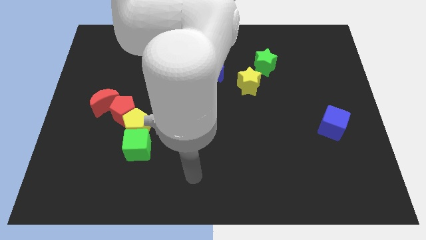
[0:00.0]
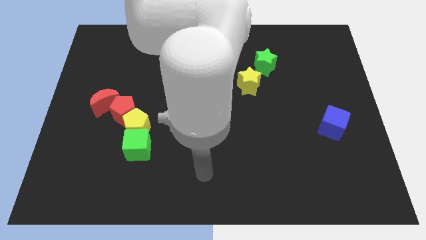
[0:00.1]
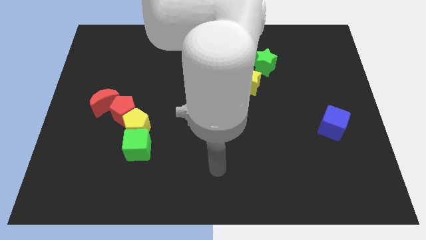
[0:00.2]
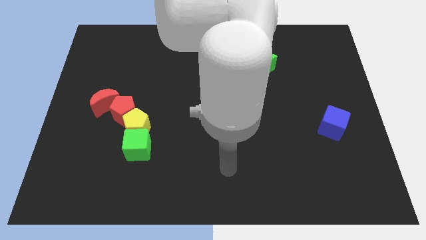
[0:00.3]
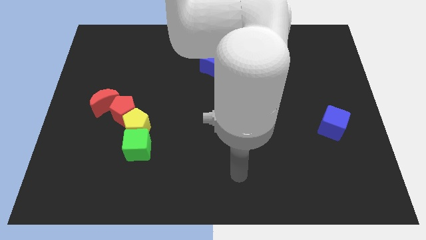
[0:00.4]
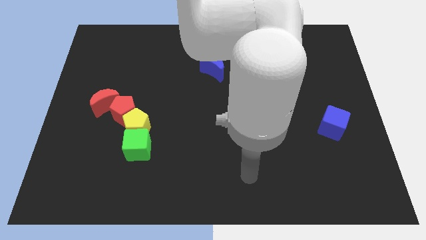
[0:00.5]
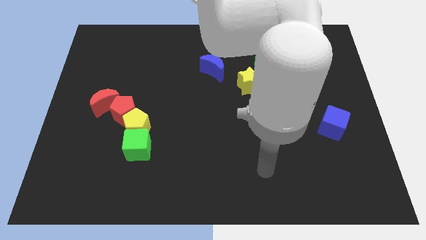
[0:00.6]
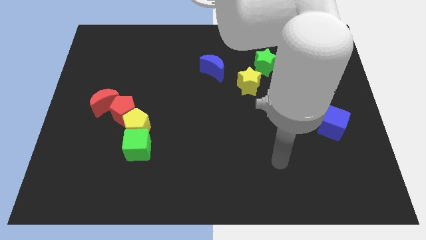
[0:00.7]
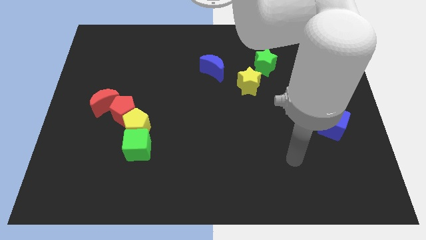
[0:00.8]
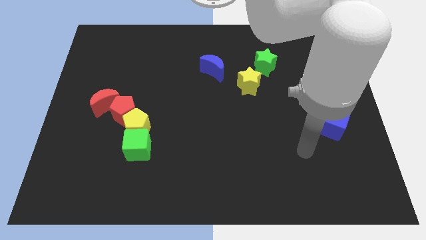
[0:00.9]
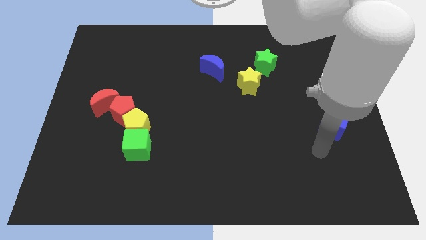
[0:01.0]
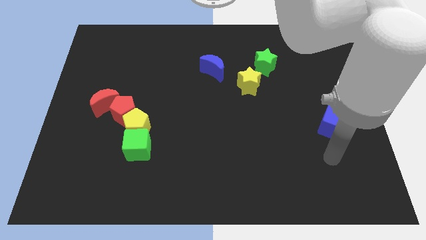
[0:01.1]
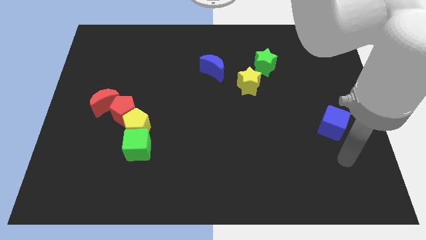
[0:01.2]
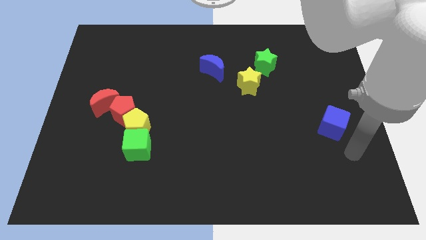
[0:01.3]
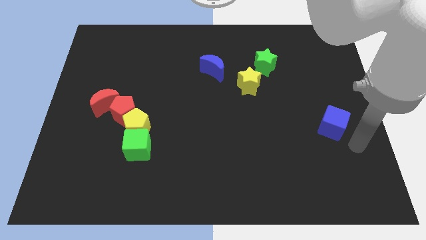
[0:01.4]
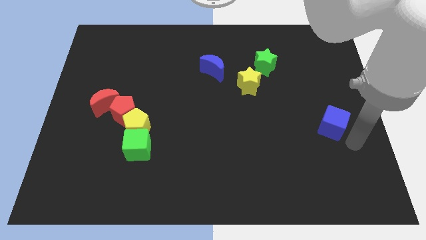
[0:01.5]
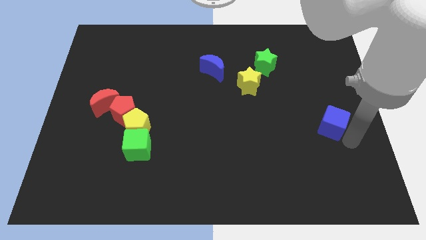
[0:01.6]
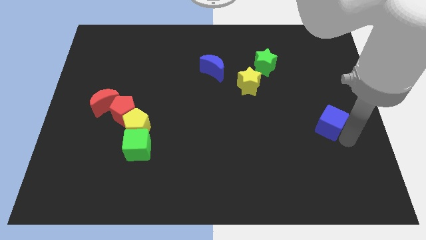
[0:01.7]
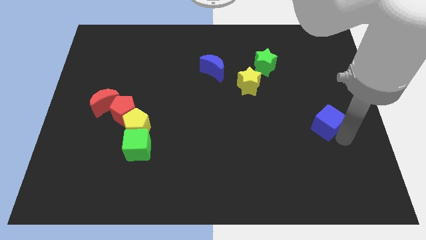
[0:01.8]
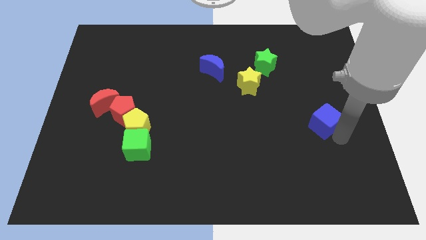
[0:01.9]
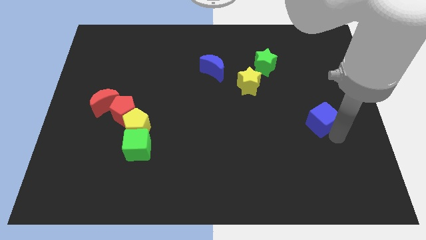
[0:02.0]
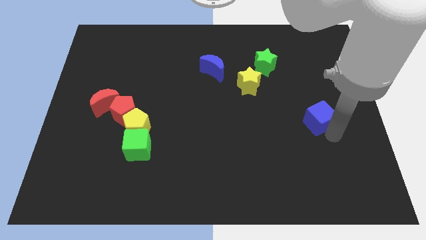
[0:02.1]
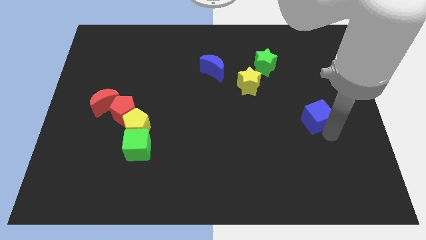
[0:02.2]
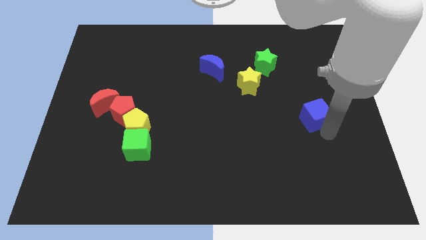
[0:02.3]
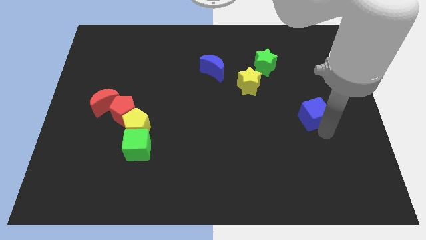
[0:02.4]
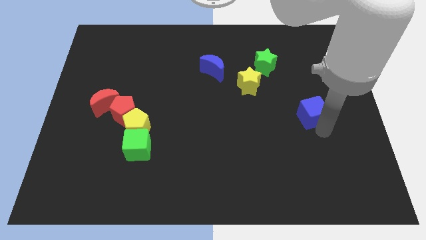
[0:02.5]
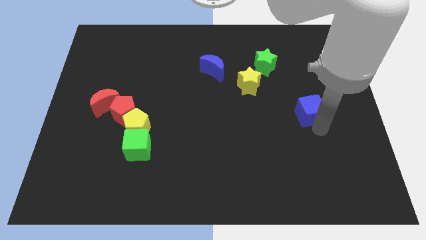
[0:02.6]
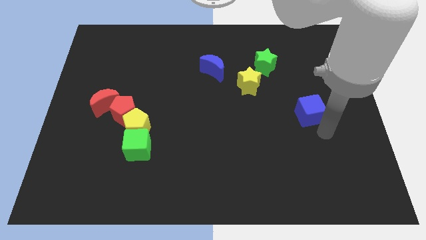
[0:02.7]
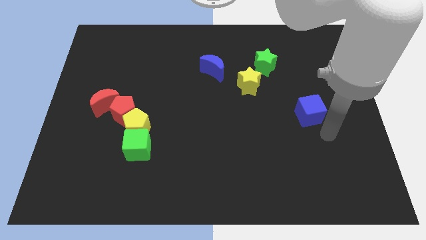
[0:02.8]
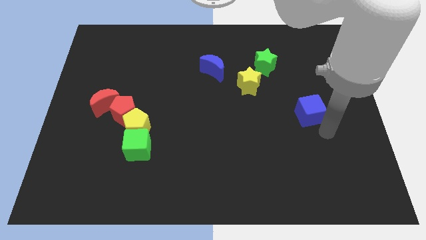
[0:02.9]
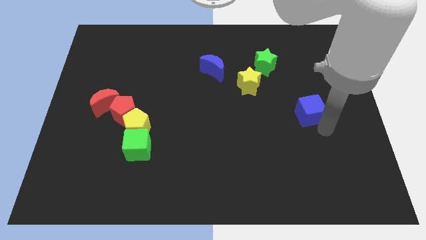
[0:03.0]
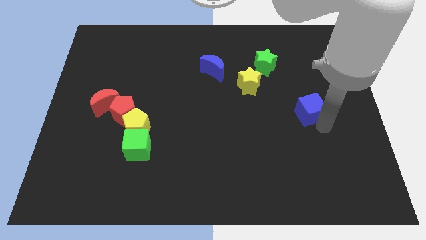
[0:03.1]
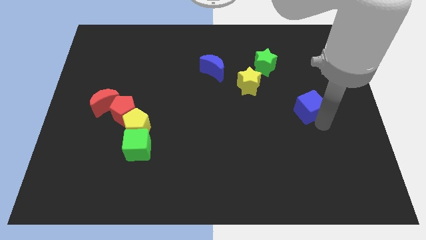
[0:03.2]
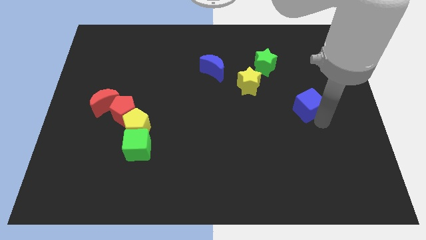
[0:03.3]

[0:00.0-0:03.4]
slide the blue cube diagonally upwards and to the left a bit

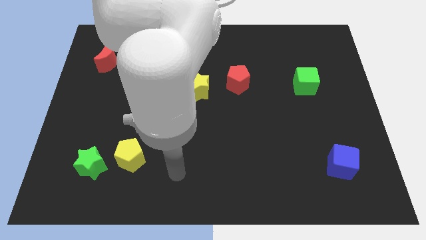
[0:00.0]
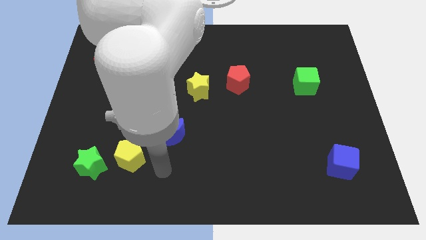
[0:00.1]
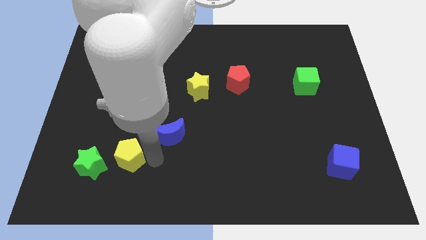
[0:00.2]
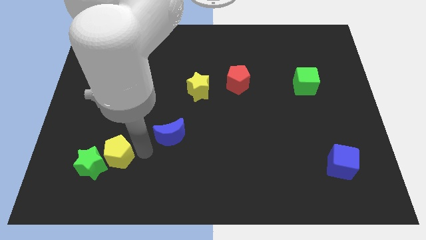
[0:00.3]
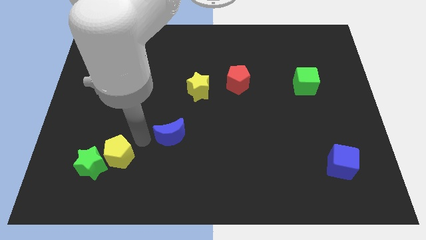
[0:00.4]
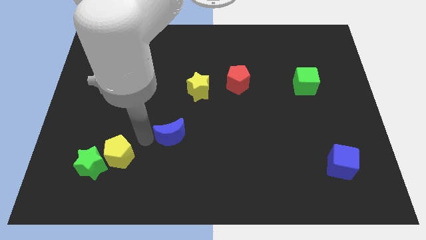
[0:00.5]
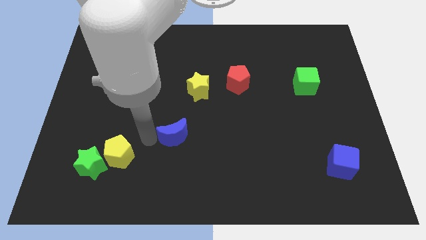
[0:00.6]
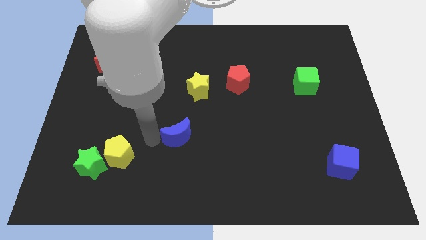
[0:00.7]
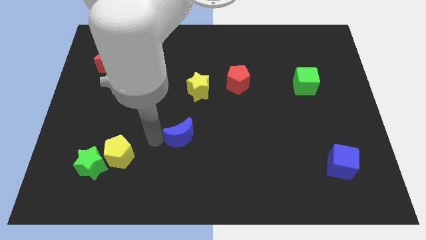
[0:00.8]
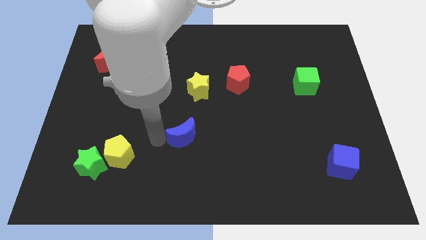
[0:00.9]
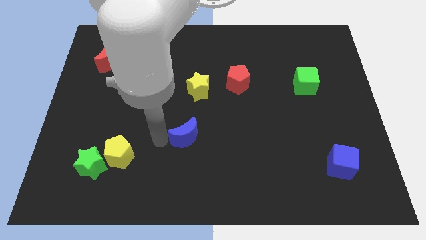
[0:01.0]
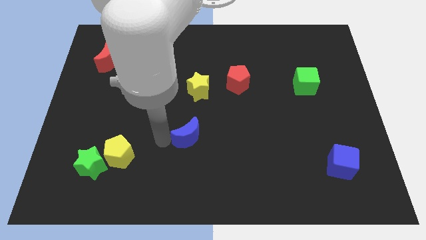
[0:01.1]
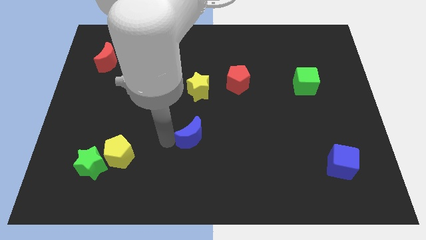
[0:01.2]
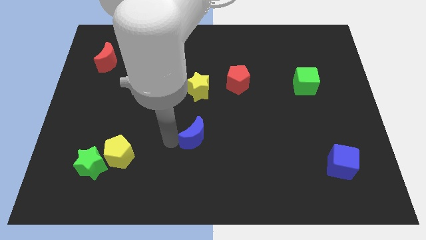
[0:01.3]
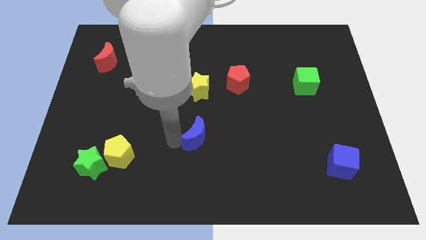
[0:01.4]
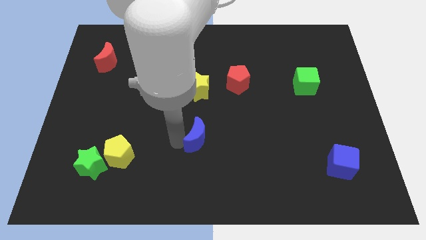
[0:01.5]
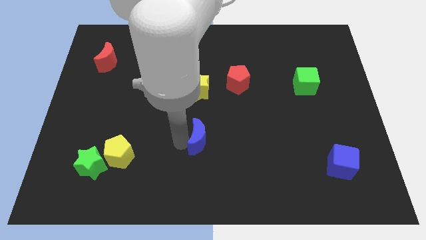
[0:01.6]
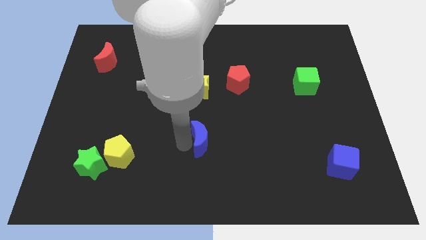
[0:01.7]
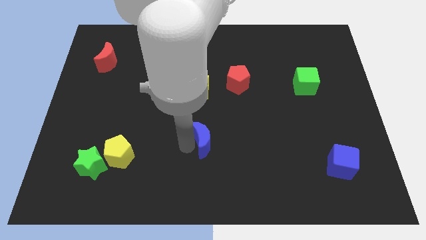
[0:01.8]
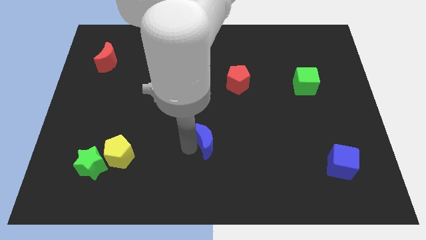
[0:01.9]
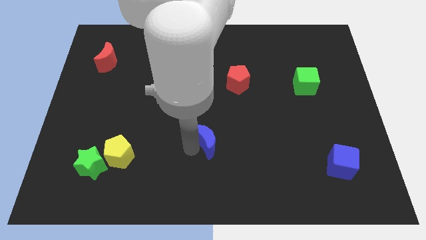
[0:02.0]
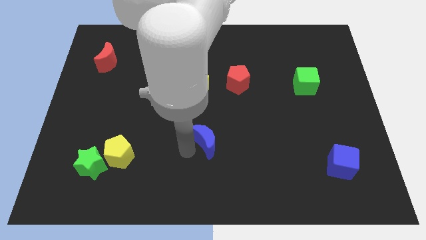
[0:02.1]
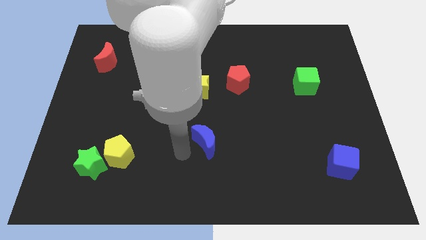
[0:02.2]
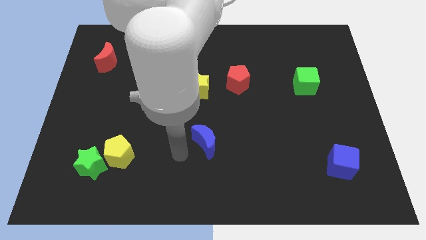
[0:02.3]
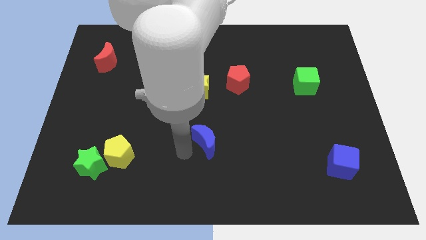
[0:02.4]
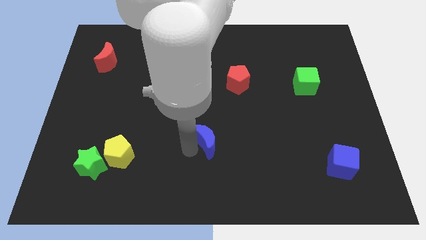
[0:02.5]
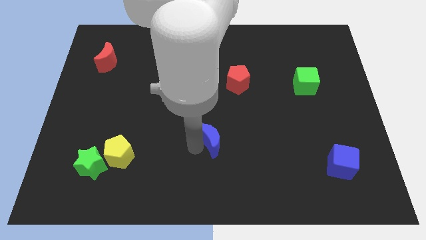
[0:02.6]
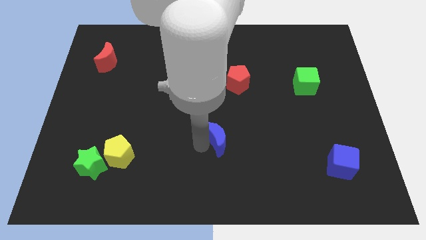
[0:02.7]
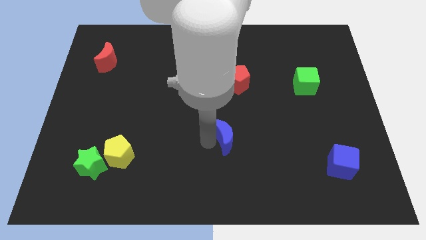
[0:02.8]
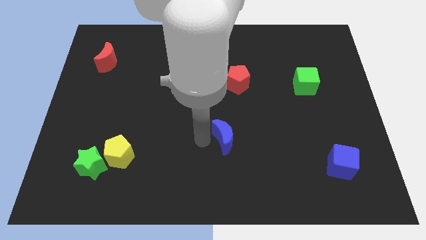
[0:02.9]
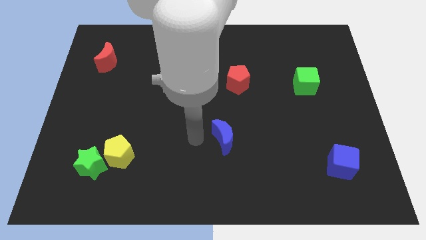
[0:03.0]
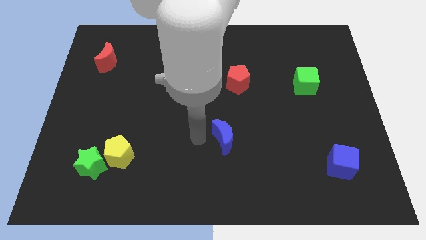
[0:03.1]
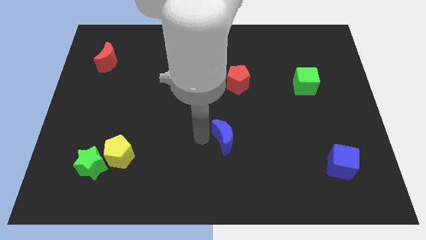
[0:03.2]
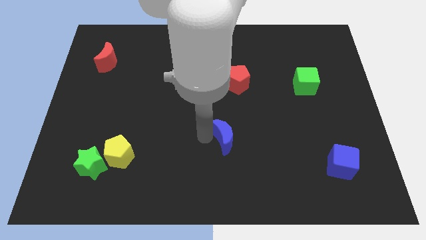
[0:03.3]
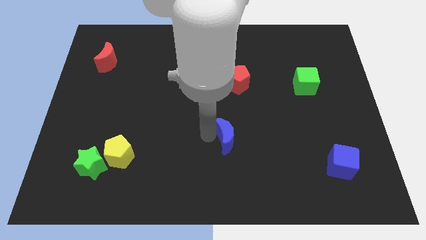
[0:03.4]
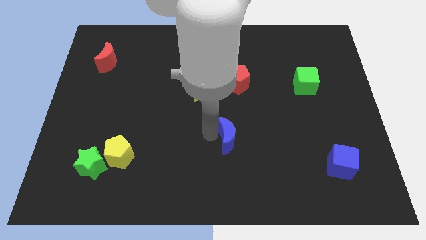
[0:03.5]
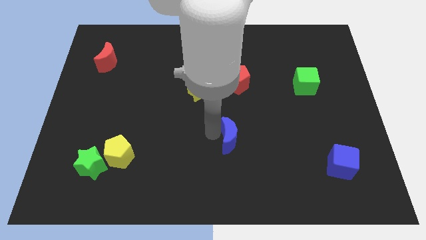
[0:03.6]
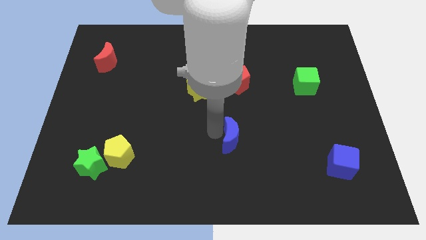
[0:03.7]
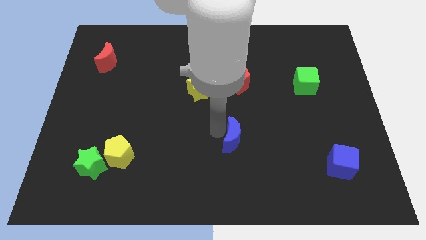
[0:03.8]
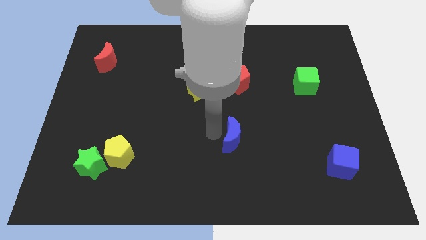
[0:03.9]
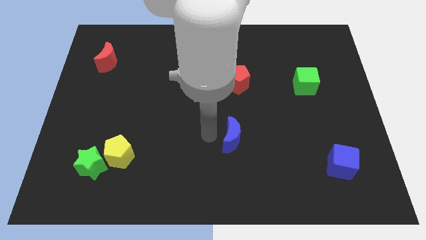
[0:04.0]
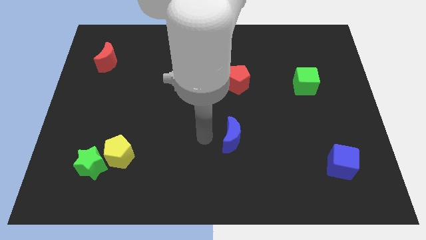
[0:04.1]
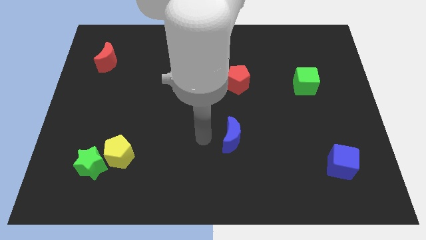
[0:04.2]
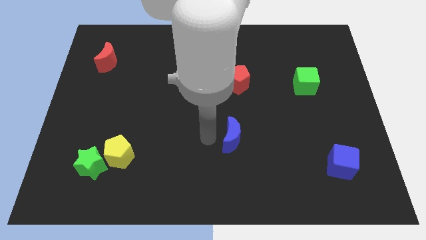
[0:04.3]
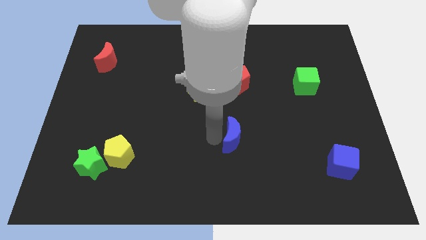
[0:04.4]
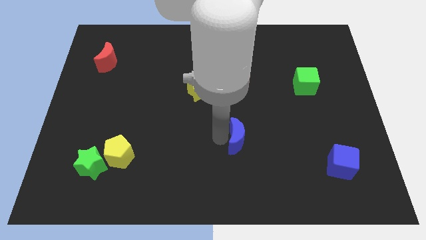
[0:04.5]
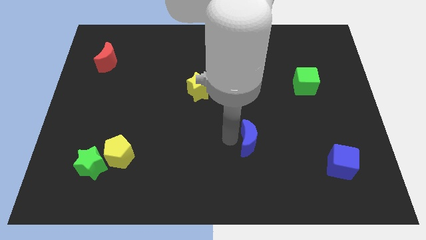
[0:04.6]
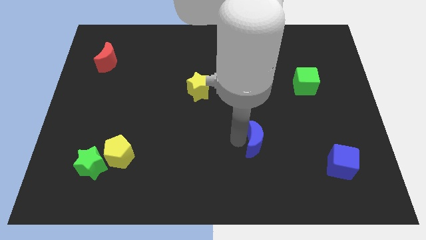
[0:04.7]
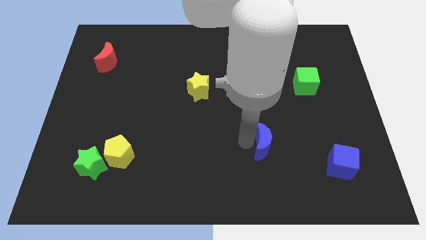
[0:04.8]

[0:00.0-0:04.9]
slide the blue moon right
